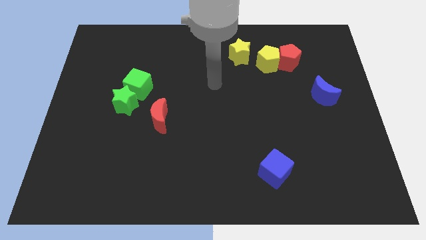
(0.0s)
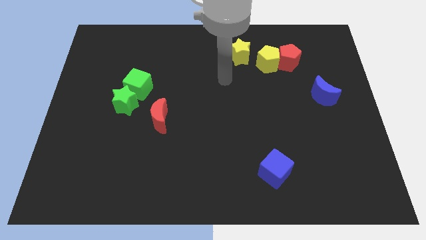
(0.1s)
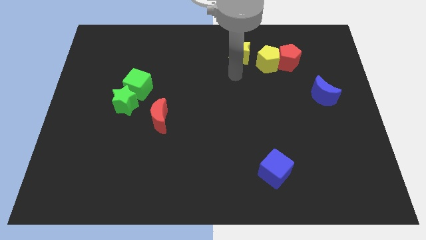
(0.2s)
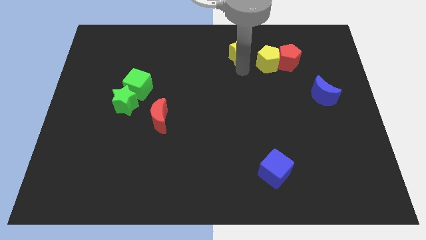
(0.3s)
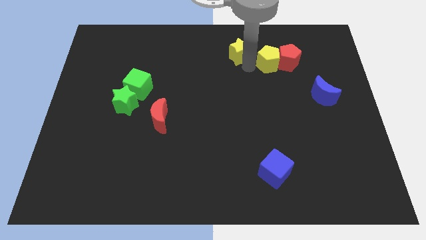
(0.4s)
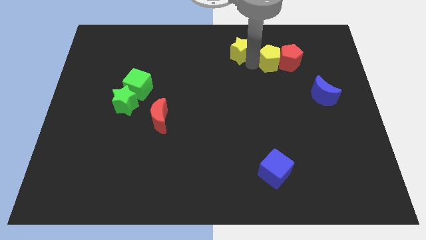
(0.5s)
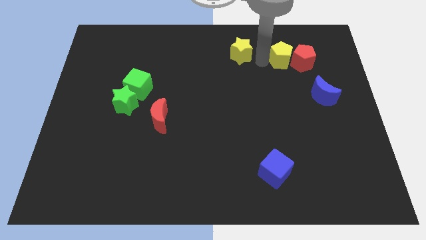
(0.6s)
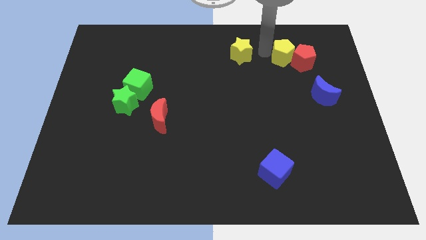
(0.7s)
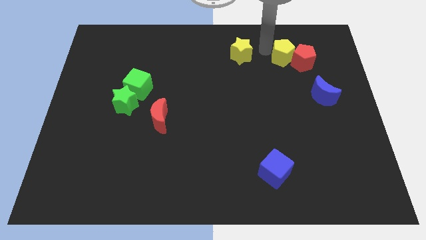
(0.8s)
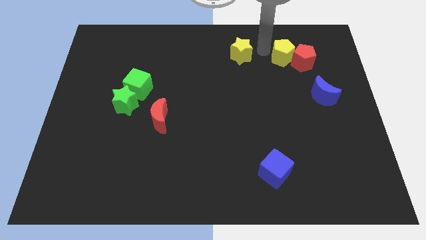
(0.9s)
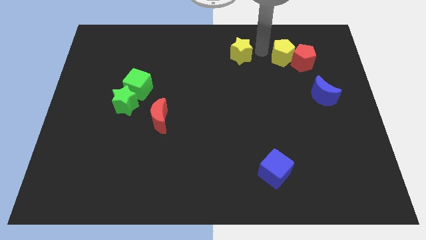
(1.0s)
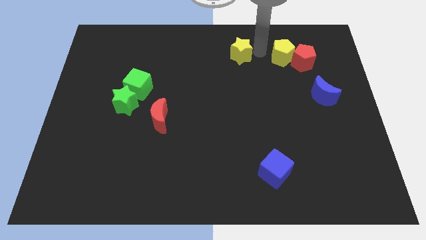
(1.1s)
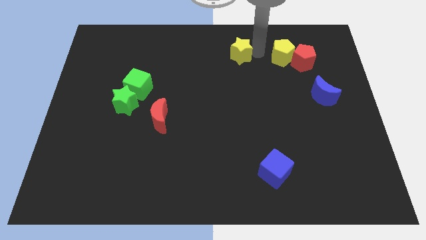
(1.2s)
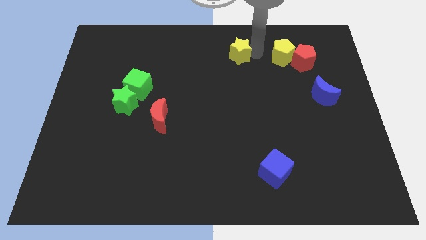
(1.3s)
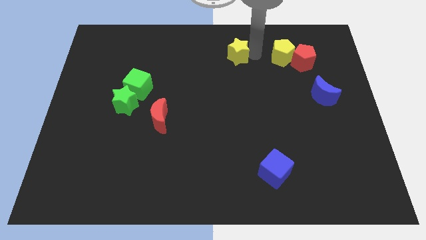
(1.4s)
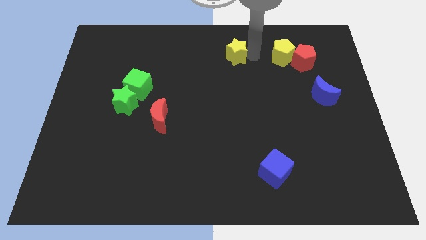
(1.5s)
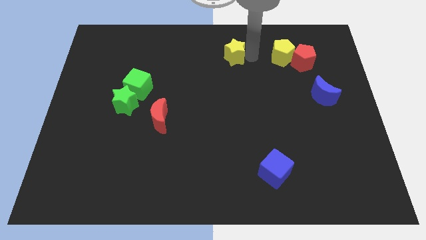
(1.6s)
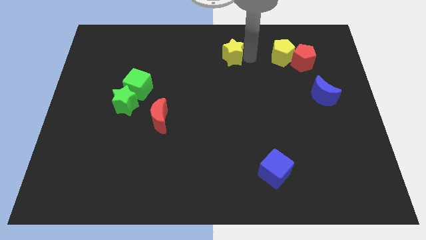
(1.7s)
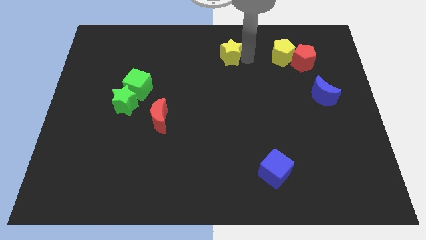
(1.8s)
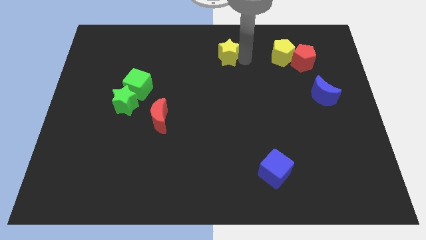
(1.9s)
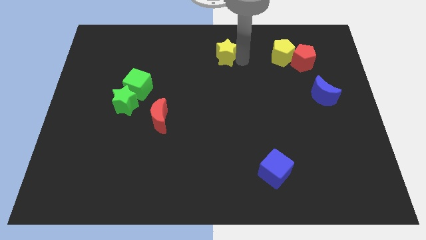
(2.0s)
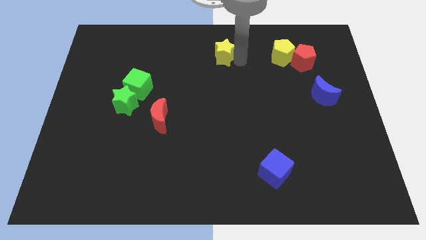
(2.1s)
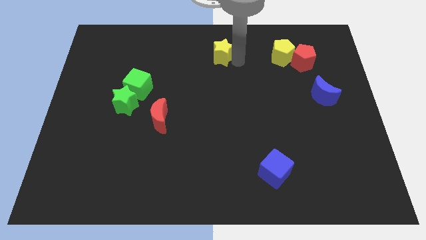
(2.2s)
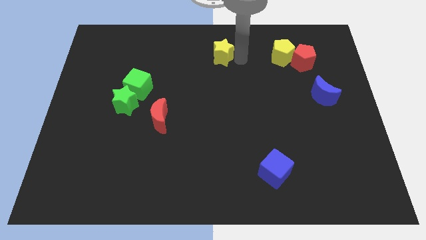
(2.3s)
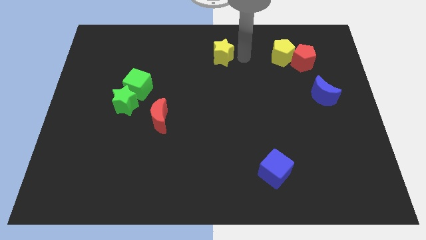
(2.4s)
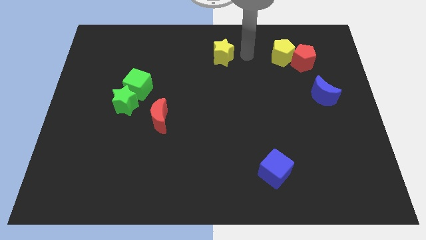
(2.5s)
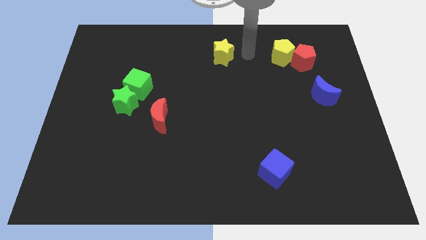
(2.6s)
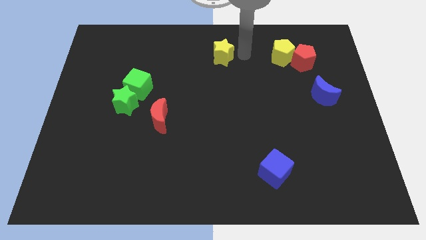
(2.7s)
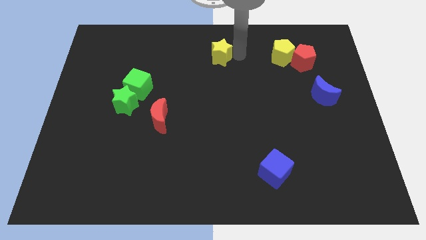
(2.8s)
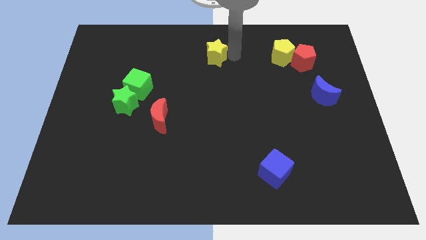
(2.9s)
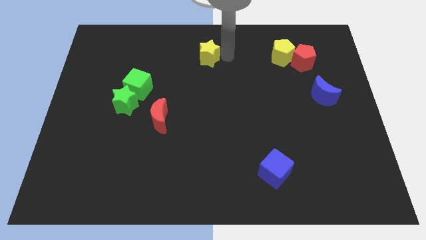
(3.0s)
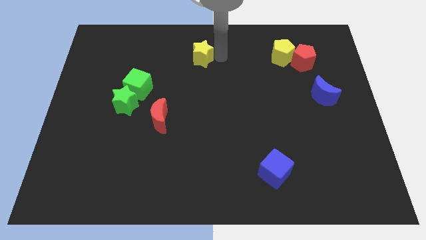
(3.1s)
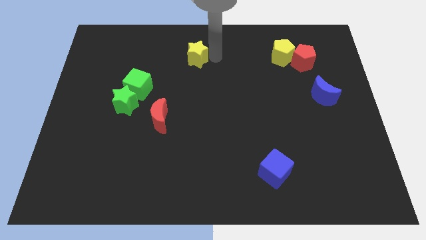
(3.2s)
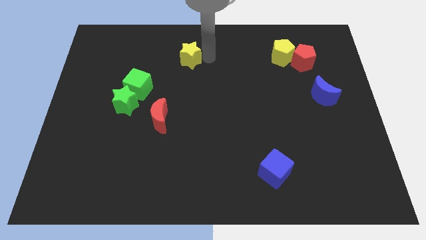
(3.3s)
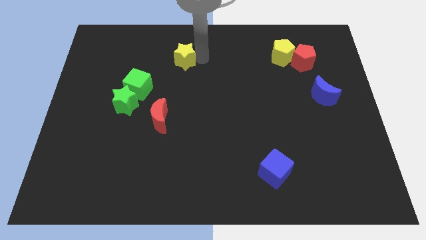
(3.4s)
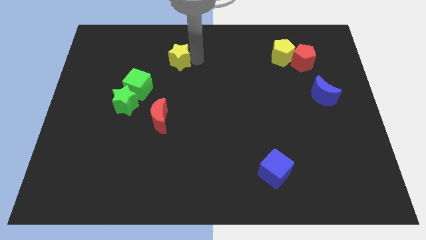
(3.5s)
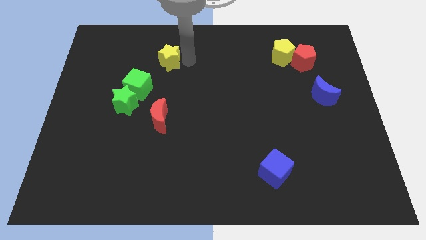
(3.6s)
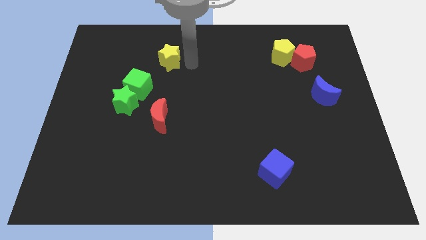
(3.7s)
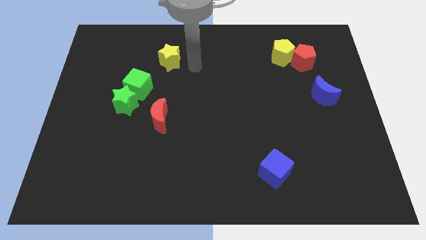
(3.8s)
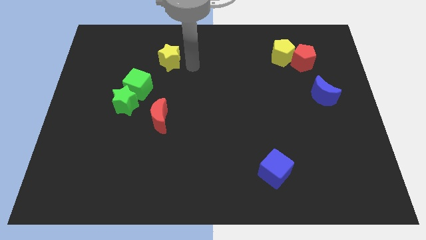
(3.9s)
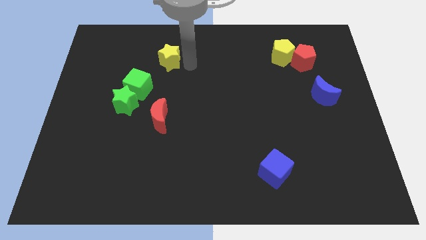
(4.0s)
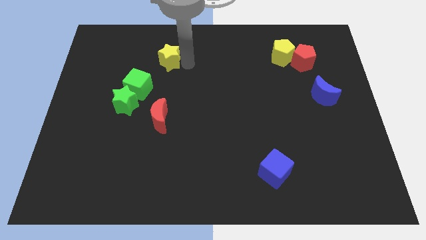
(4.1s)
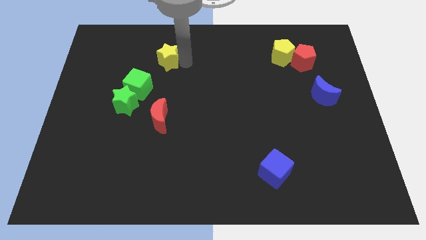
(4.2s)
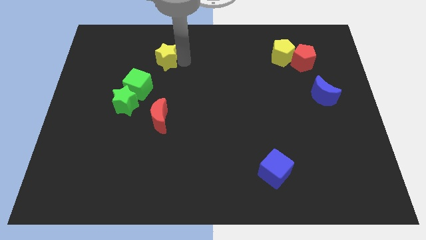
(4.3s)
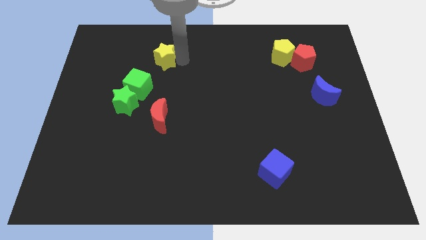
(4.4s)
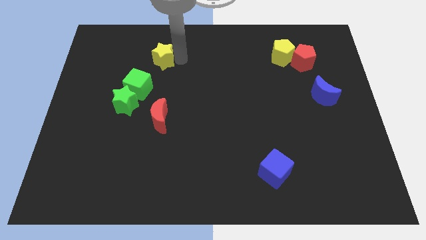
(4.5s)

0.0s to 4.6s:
move the yellow star to the left

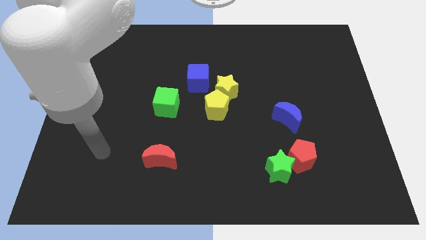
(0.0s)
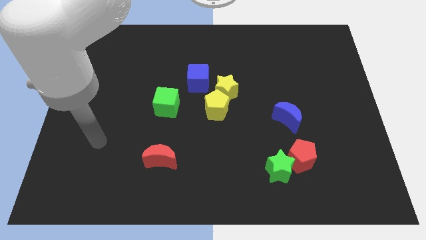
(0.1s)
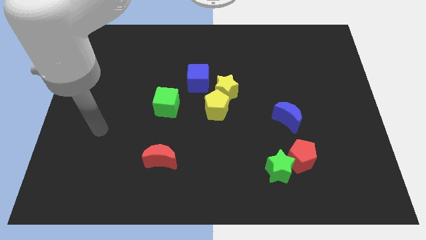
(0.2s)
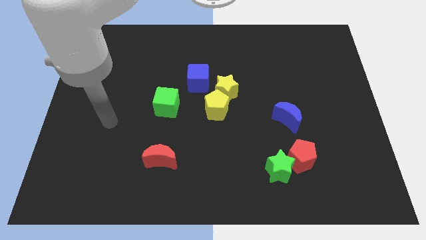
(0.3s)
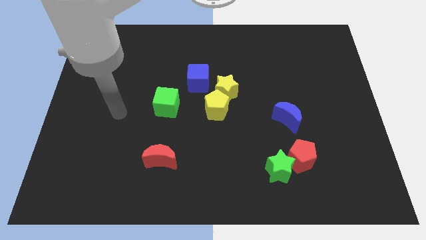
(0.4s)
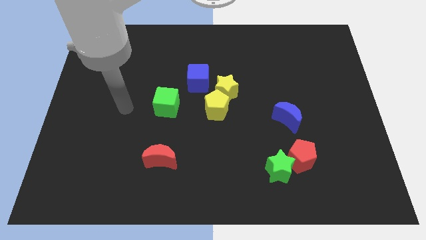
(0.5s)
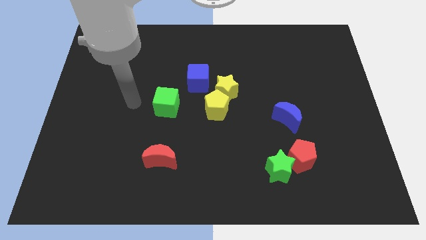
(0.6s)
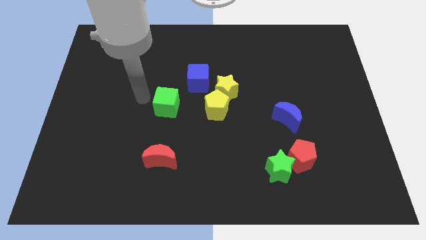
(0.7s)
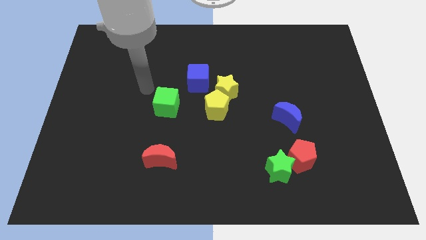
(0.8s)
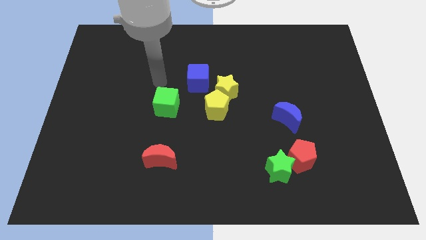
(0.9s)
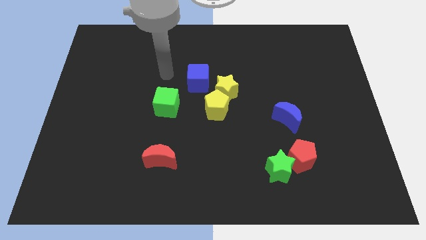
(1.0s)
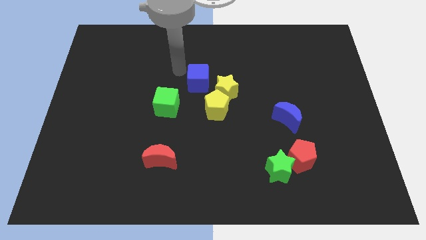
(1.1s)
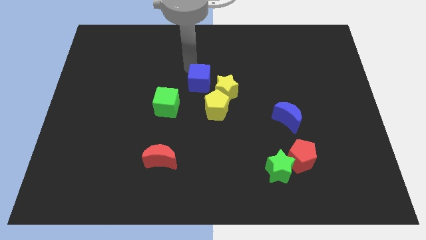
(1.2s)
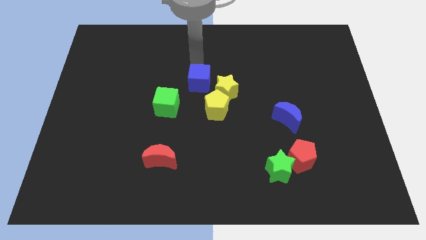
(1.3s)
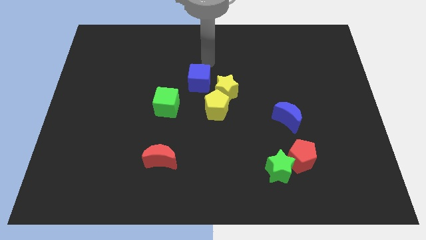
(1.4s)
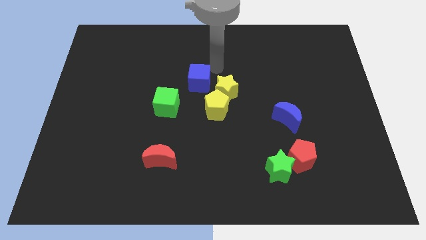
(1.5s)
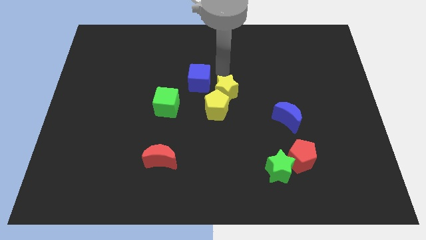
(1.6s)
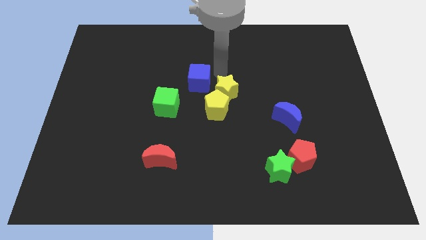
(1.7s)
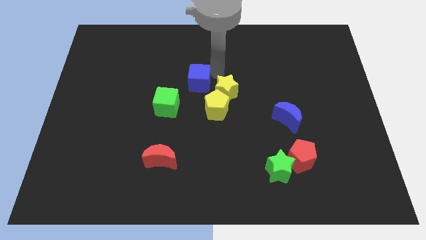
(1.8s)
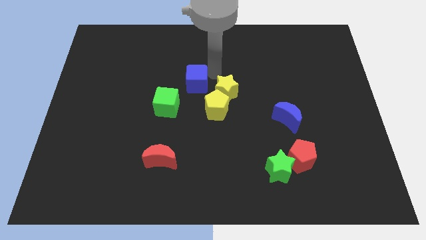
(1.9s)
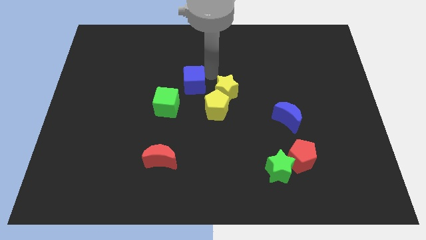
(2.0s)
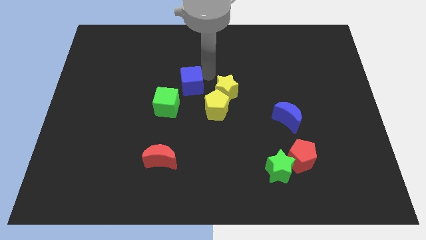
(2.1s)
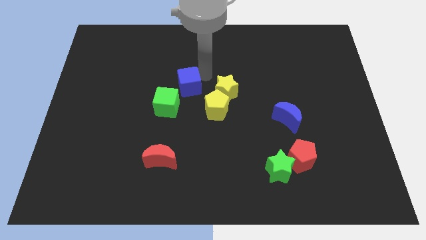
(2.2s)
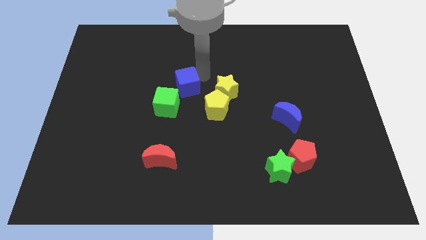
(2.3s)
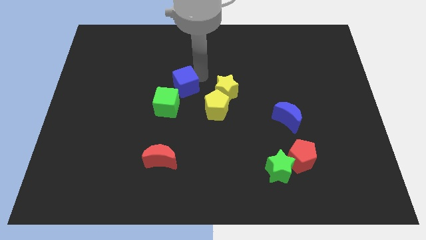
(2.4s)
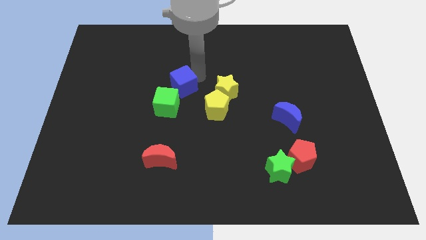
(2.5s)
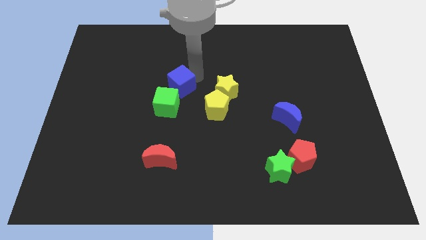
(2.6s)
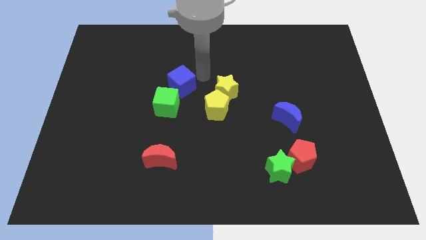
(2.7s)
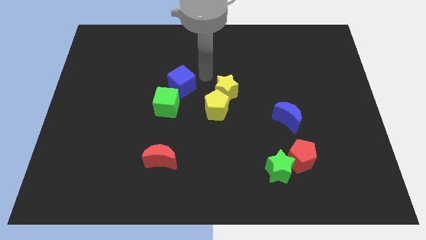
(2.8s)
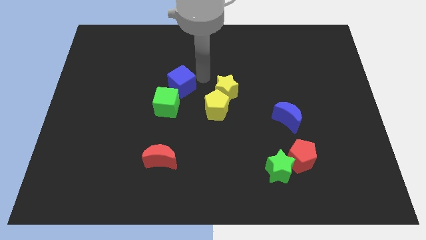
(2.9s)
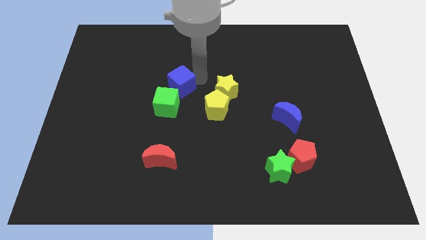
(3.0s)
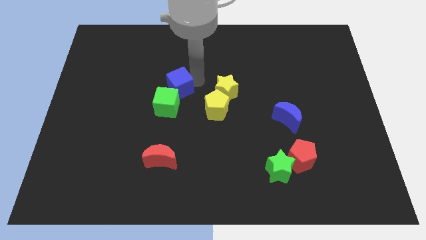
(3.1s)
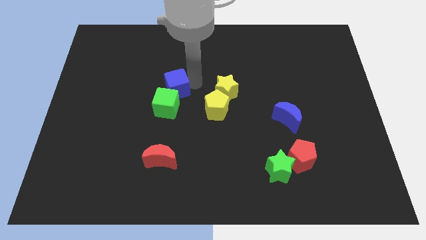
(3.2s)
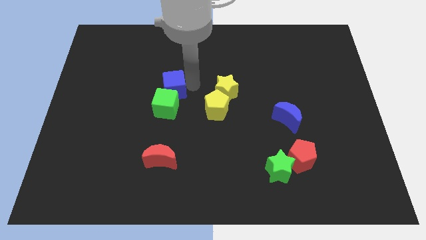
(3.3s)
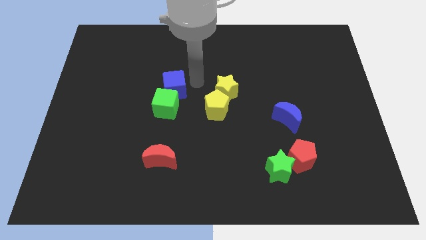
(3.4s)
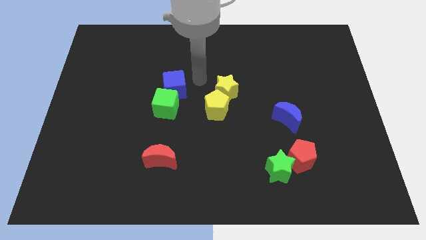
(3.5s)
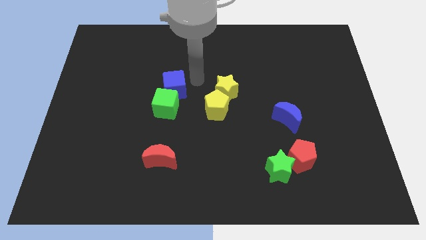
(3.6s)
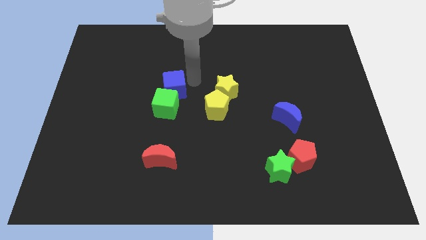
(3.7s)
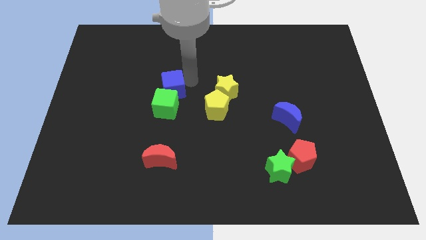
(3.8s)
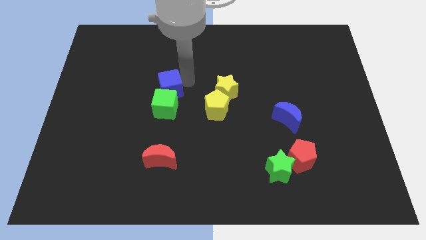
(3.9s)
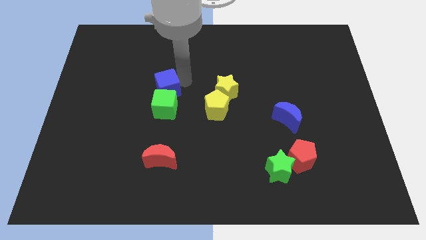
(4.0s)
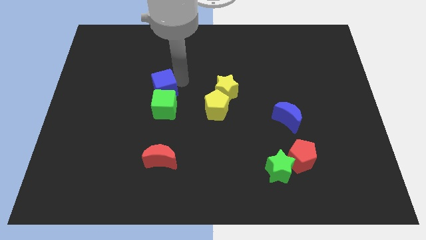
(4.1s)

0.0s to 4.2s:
push the blue cube downwards and left diagonally a bit
